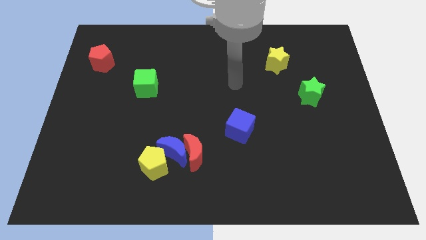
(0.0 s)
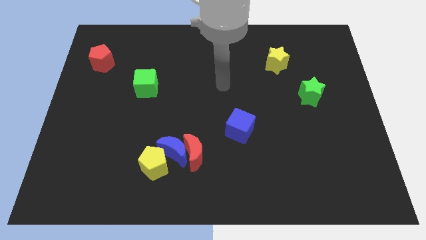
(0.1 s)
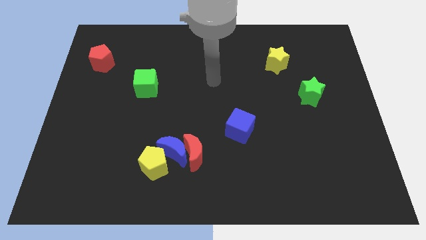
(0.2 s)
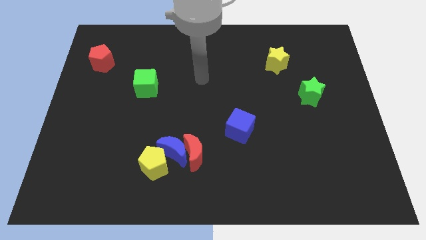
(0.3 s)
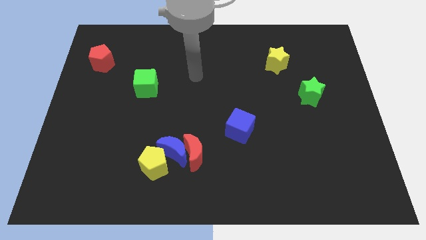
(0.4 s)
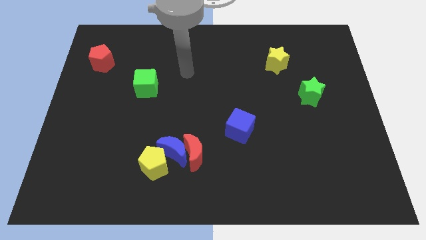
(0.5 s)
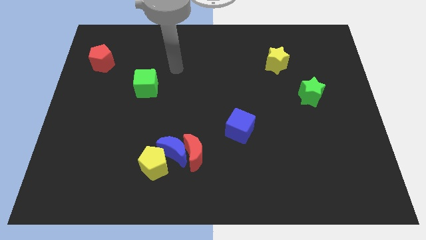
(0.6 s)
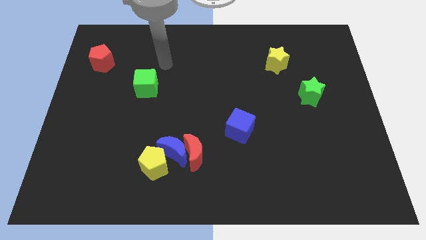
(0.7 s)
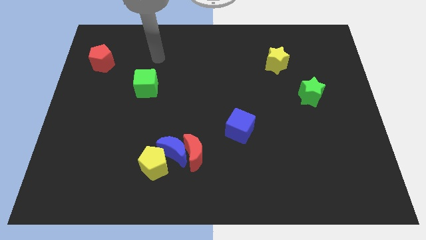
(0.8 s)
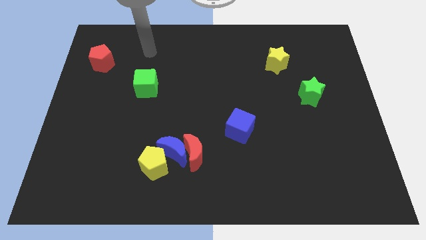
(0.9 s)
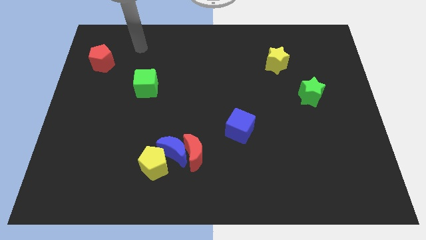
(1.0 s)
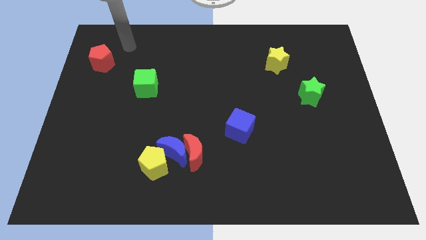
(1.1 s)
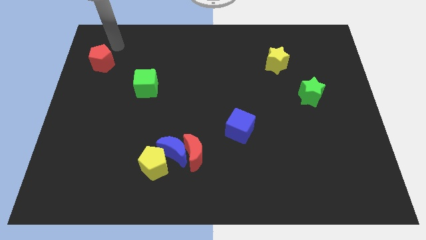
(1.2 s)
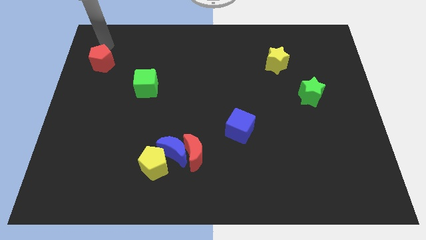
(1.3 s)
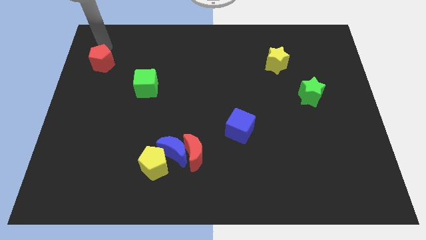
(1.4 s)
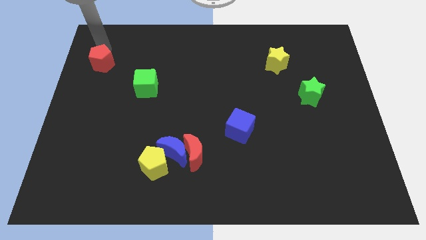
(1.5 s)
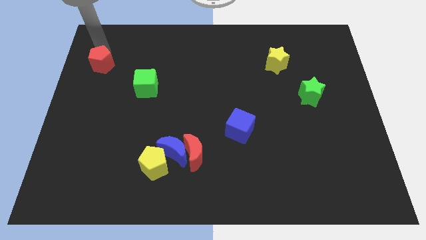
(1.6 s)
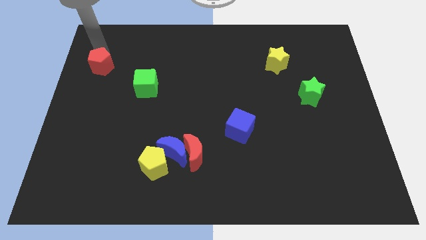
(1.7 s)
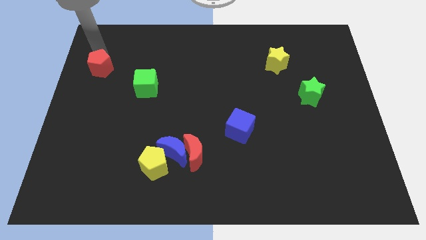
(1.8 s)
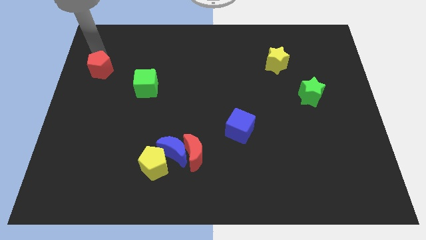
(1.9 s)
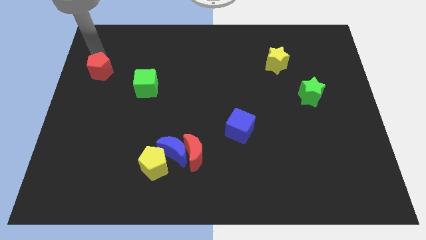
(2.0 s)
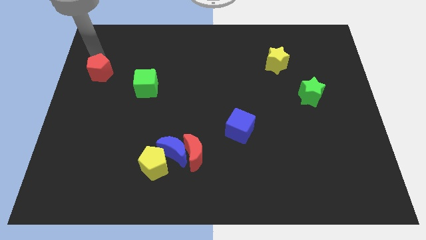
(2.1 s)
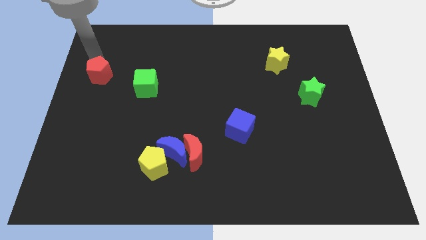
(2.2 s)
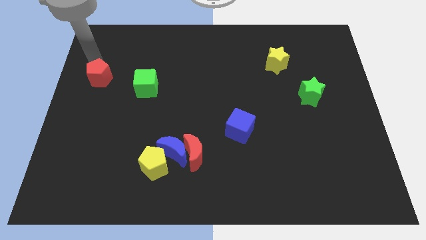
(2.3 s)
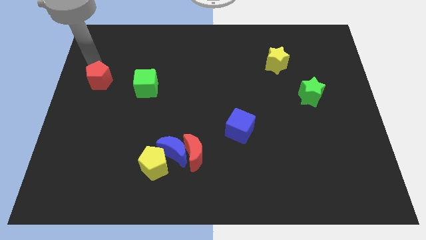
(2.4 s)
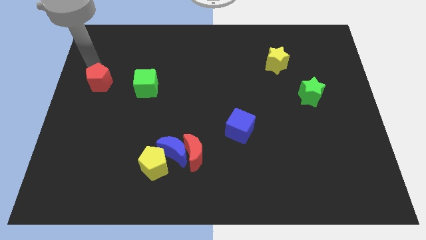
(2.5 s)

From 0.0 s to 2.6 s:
push the red pentagon downwards a little bit

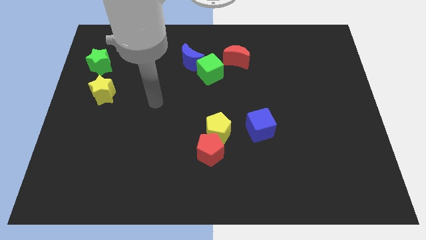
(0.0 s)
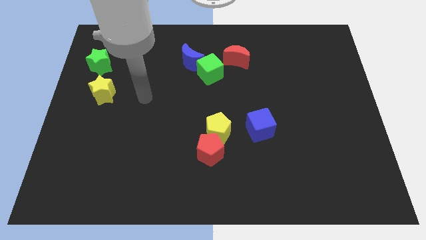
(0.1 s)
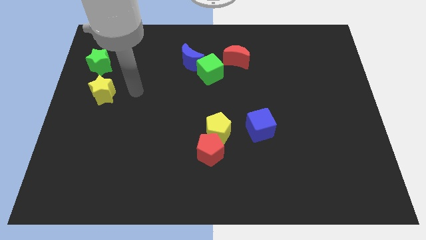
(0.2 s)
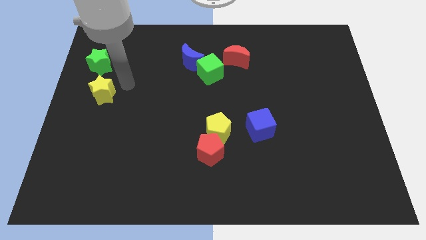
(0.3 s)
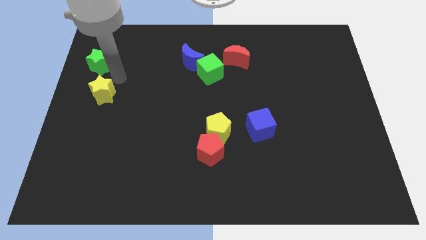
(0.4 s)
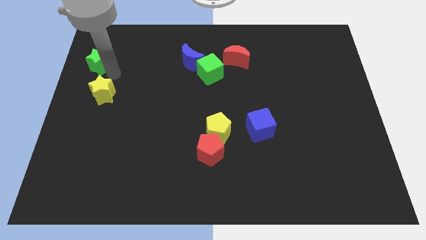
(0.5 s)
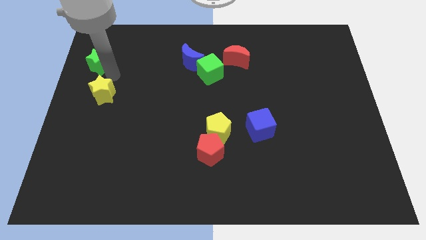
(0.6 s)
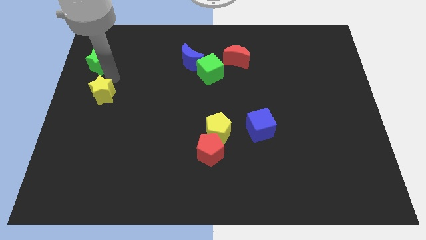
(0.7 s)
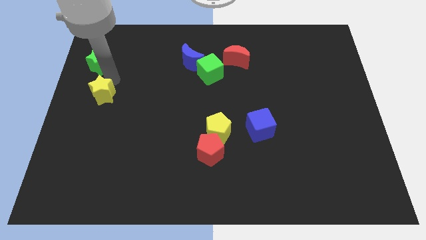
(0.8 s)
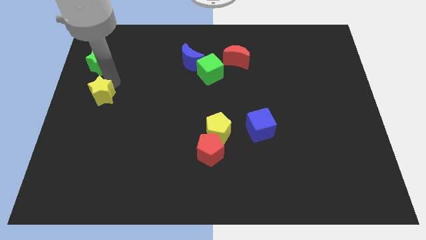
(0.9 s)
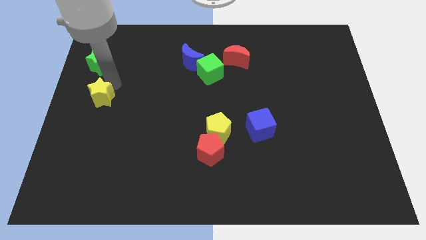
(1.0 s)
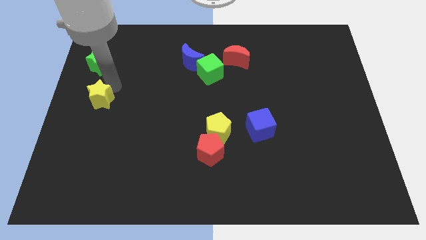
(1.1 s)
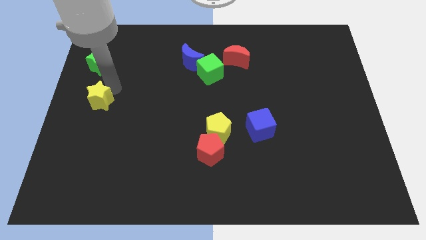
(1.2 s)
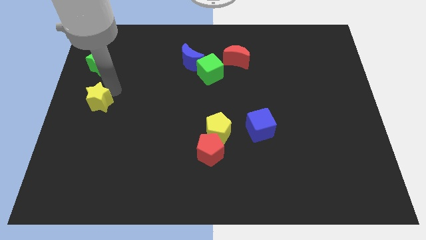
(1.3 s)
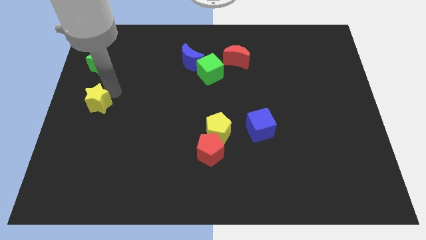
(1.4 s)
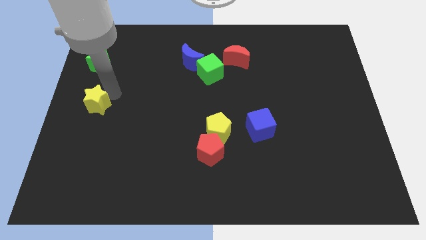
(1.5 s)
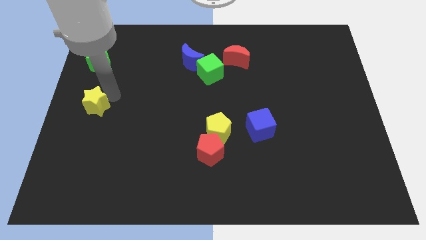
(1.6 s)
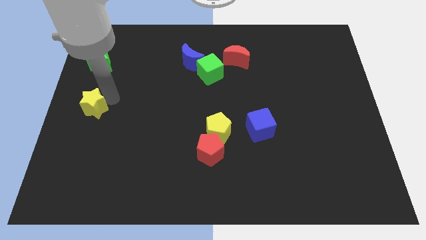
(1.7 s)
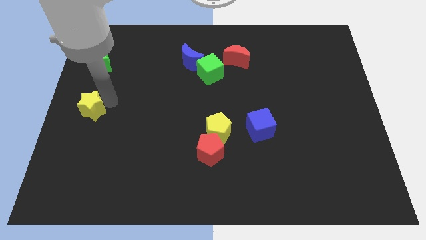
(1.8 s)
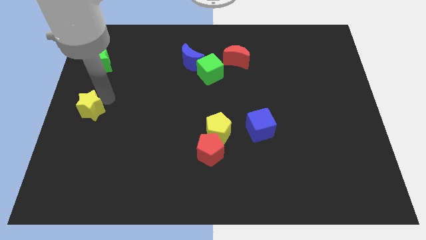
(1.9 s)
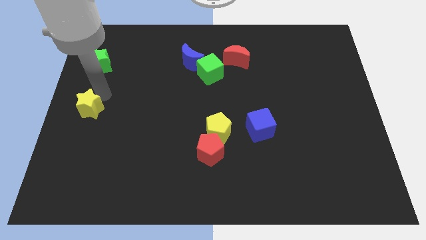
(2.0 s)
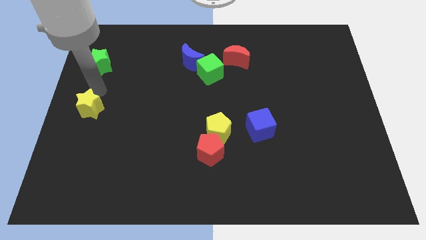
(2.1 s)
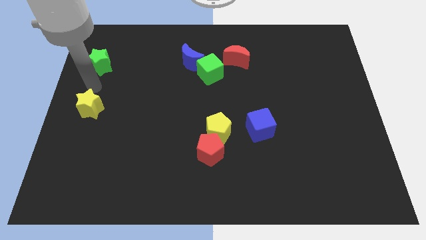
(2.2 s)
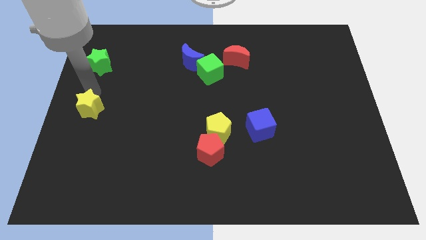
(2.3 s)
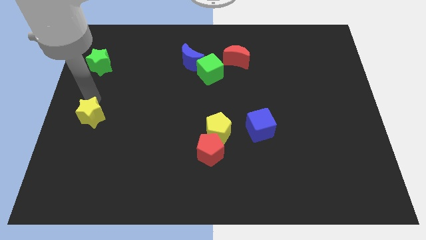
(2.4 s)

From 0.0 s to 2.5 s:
slide the yellow star slightly downwards

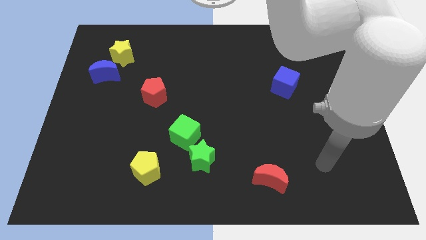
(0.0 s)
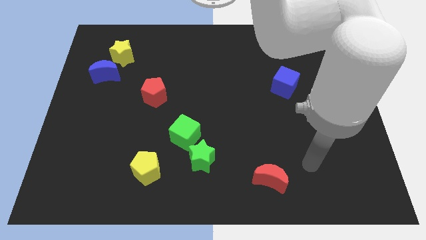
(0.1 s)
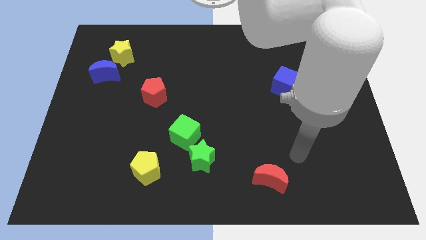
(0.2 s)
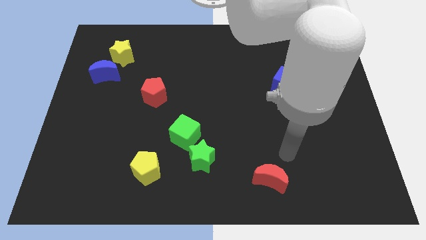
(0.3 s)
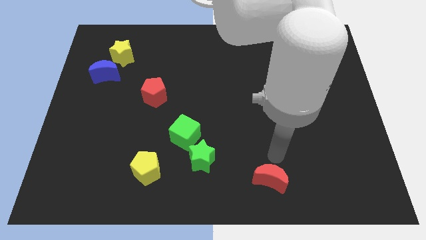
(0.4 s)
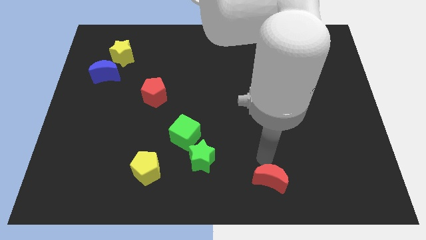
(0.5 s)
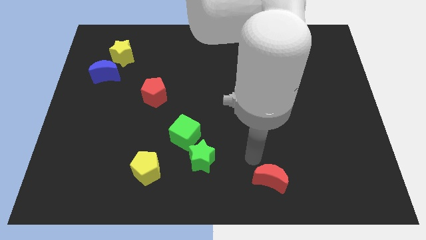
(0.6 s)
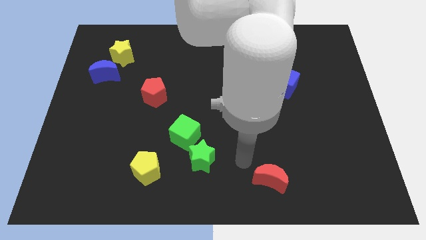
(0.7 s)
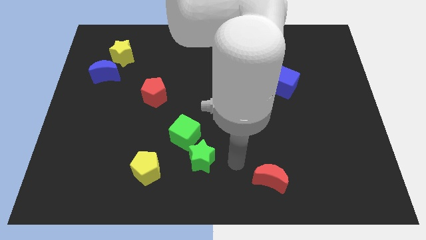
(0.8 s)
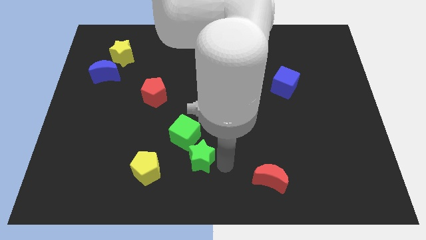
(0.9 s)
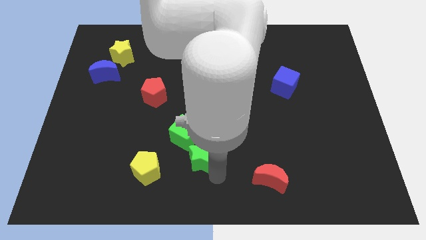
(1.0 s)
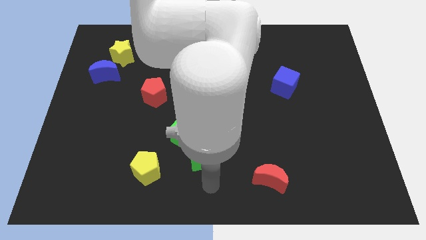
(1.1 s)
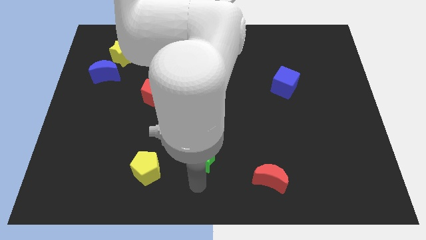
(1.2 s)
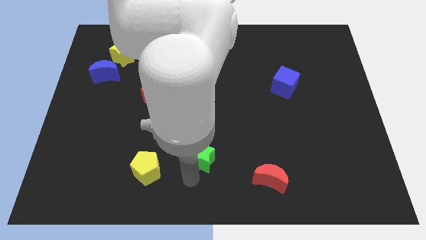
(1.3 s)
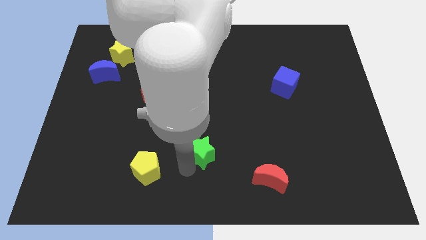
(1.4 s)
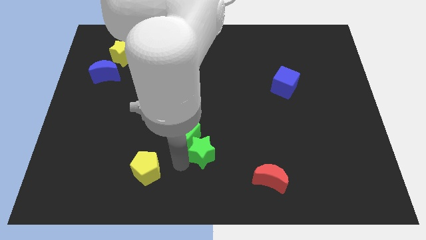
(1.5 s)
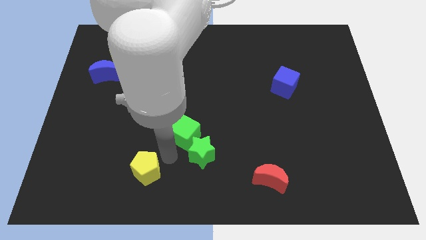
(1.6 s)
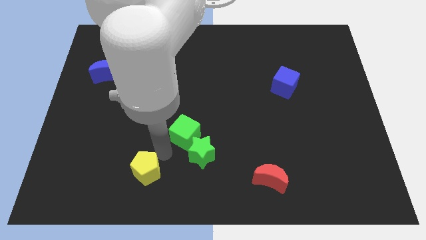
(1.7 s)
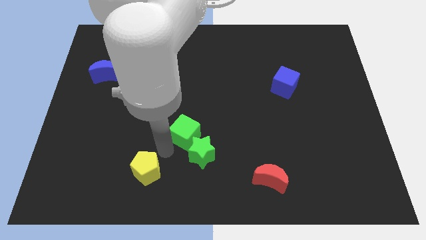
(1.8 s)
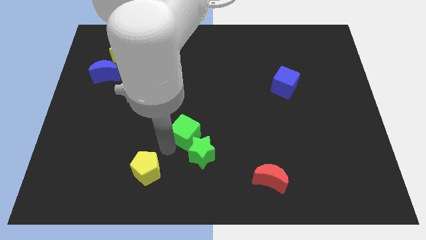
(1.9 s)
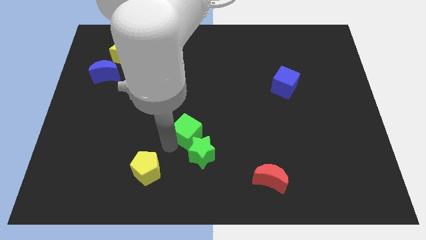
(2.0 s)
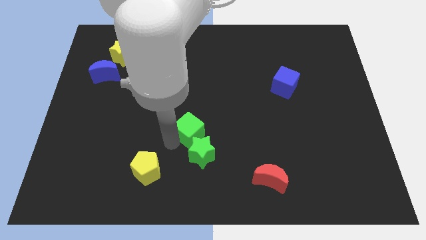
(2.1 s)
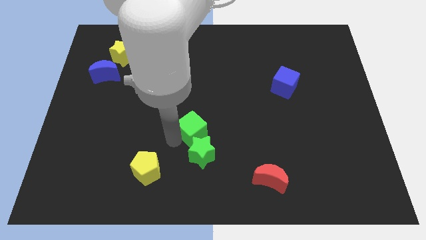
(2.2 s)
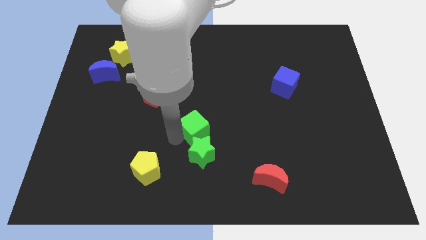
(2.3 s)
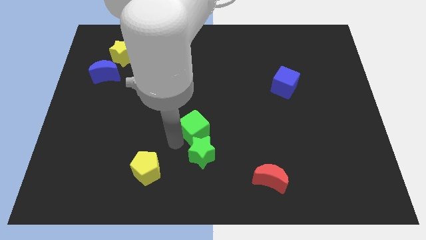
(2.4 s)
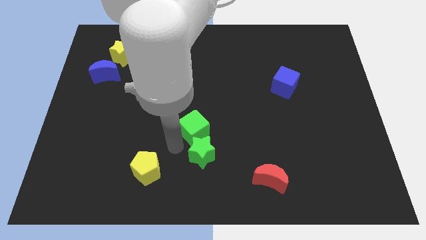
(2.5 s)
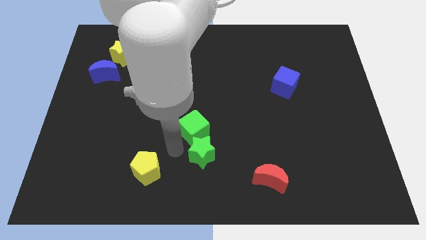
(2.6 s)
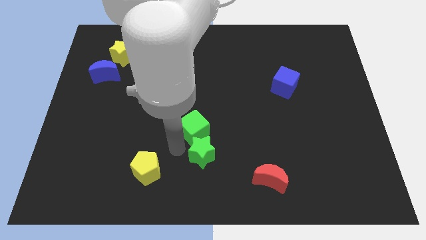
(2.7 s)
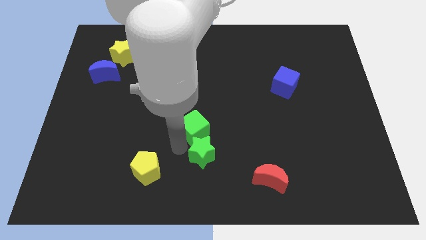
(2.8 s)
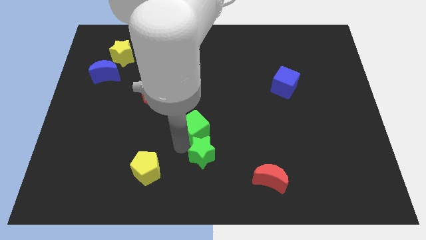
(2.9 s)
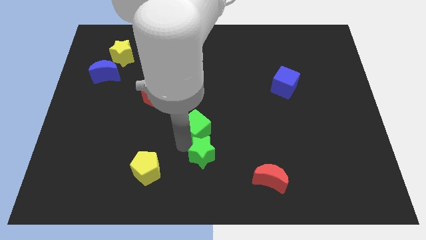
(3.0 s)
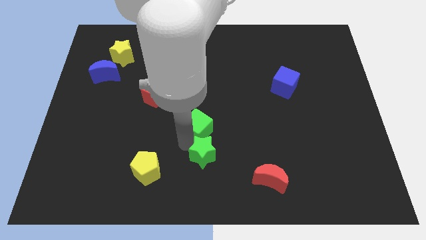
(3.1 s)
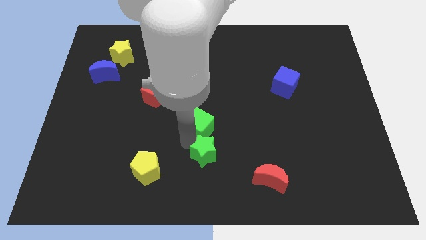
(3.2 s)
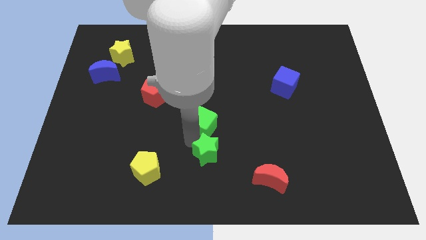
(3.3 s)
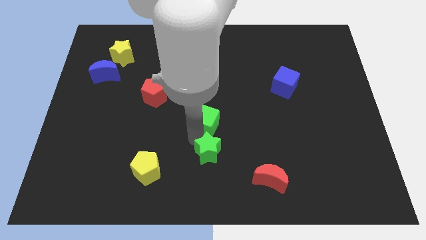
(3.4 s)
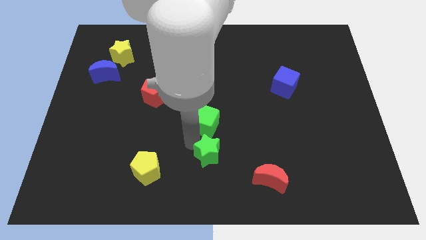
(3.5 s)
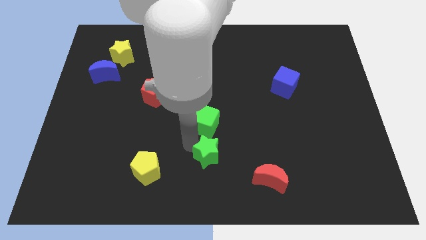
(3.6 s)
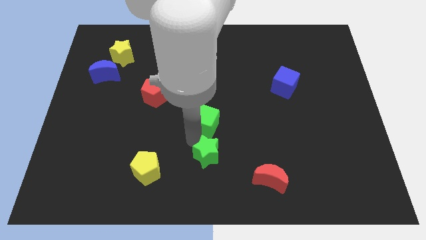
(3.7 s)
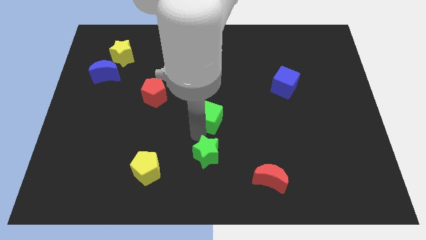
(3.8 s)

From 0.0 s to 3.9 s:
slide the green cube diagonally upwards and right a little
